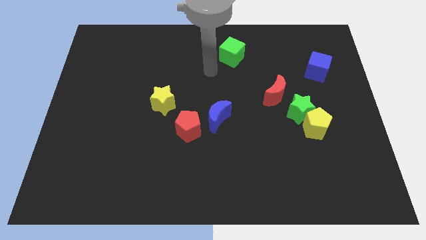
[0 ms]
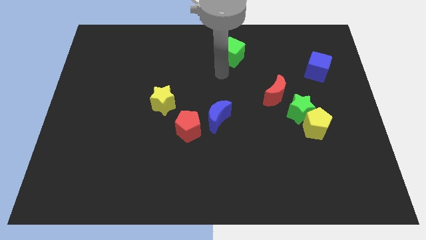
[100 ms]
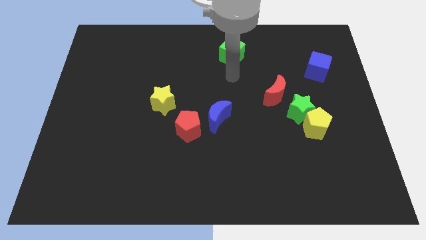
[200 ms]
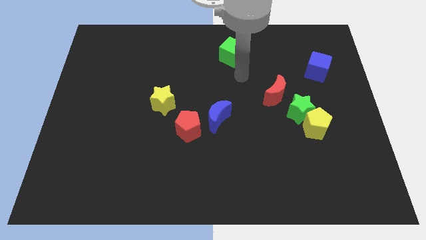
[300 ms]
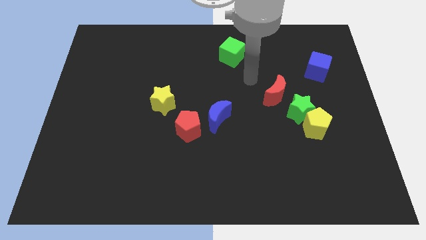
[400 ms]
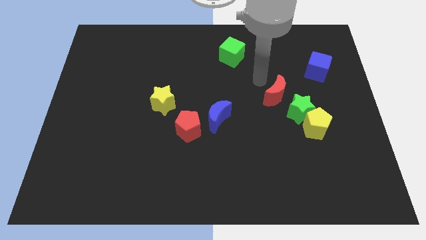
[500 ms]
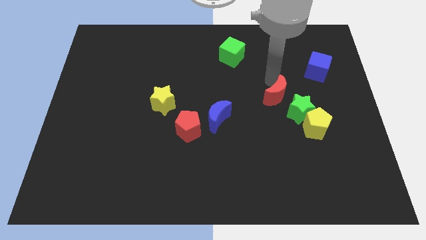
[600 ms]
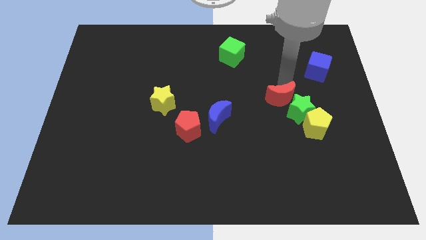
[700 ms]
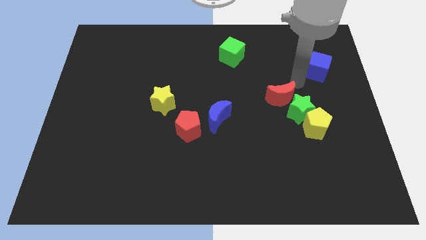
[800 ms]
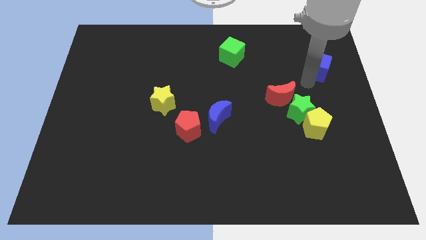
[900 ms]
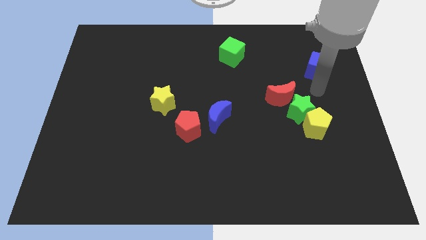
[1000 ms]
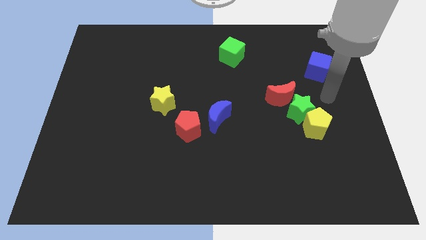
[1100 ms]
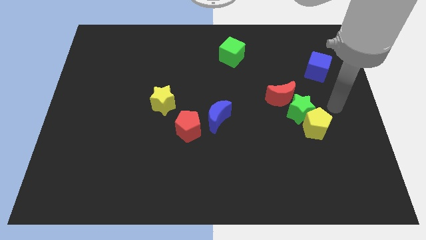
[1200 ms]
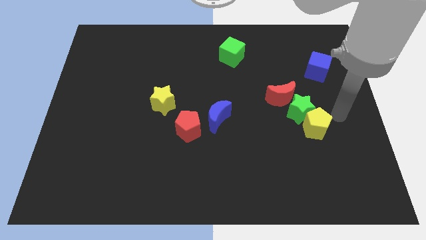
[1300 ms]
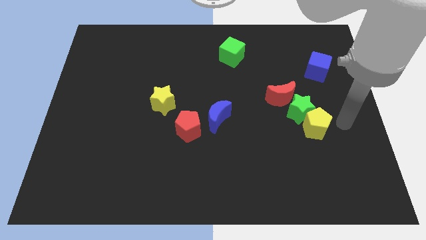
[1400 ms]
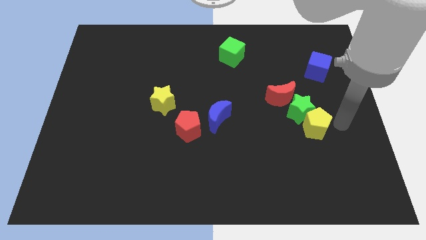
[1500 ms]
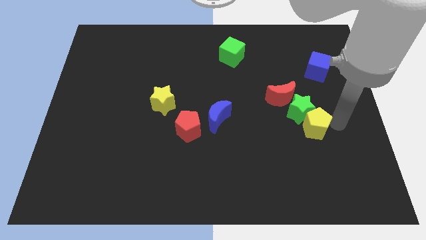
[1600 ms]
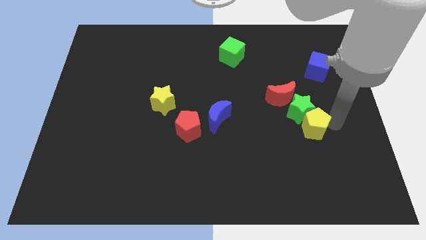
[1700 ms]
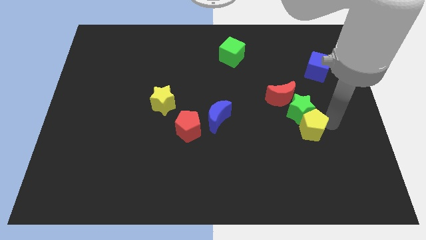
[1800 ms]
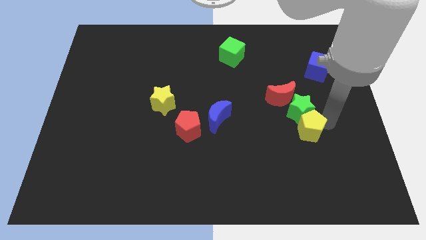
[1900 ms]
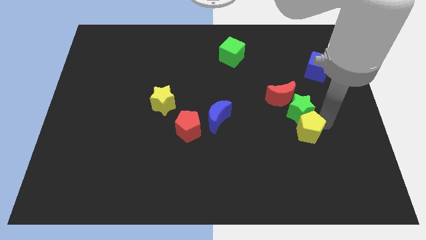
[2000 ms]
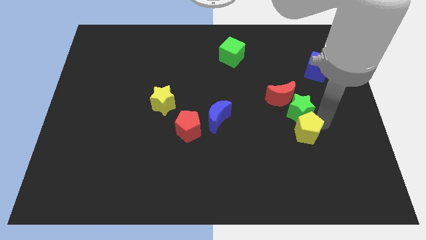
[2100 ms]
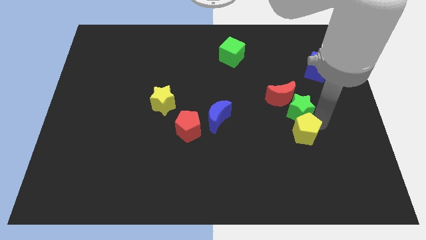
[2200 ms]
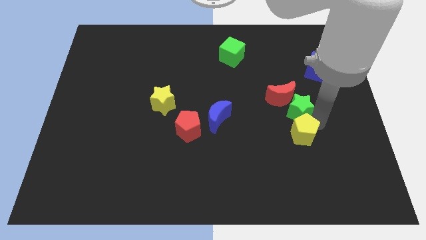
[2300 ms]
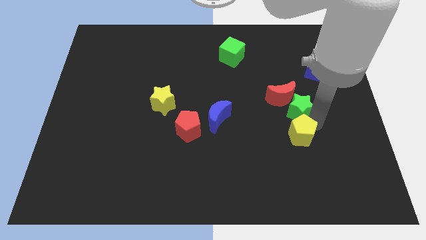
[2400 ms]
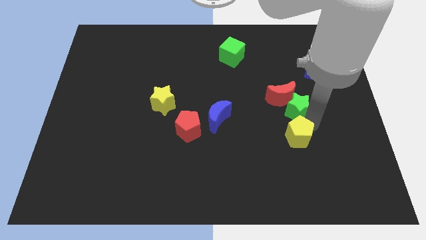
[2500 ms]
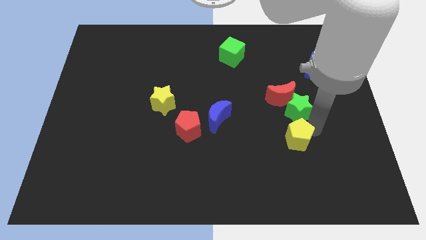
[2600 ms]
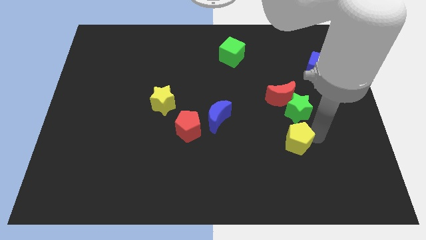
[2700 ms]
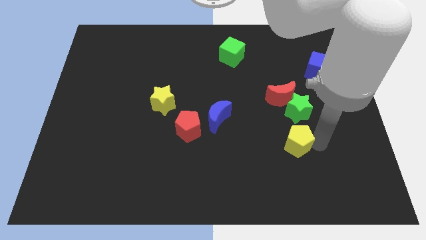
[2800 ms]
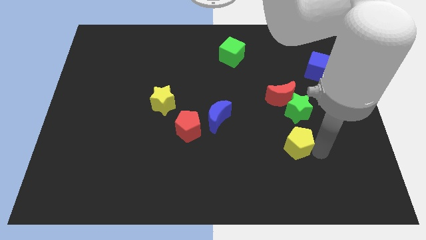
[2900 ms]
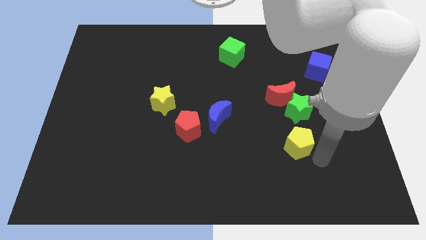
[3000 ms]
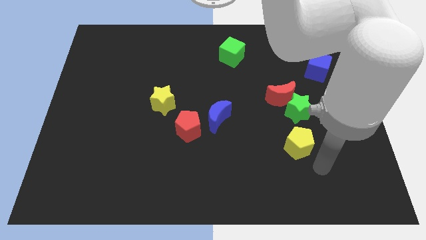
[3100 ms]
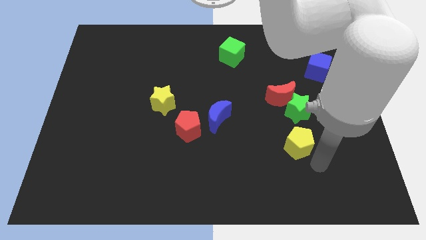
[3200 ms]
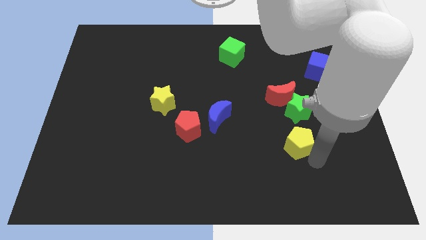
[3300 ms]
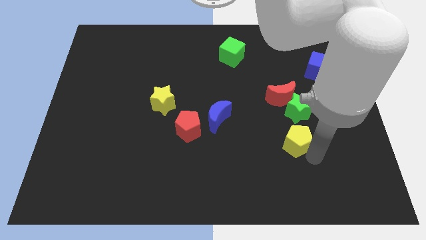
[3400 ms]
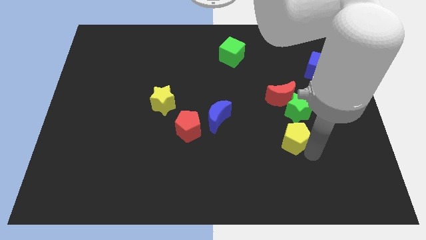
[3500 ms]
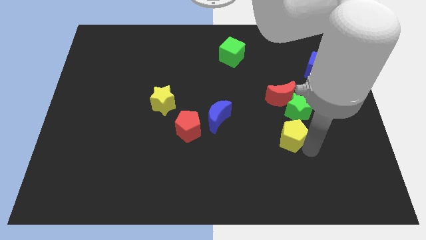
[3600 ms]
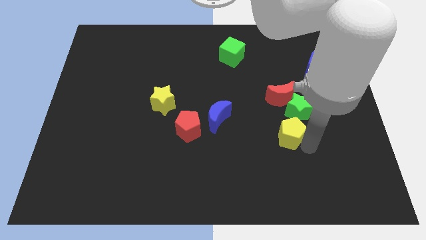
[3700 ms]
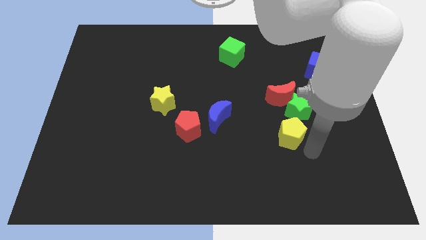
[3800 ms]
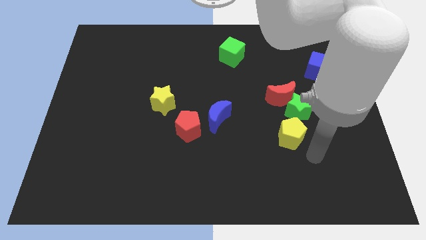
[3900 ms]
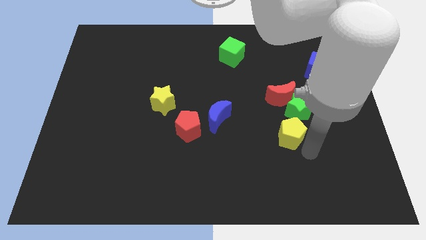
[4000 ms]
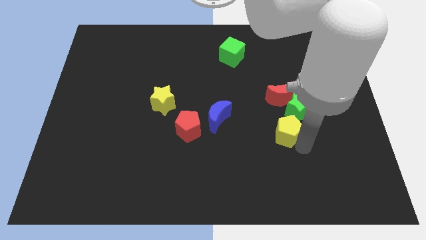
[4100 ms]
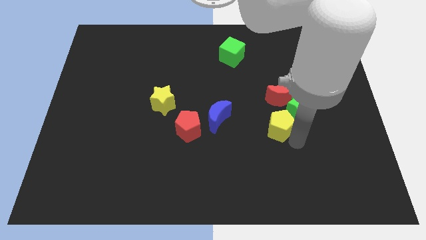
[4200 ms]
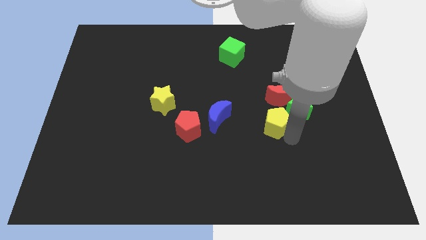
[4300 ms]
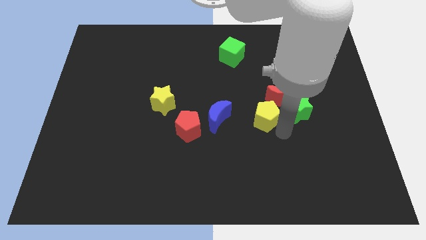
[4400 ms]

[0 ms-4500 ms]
slightly move the yellow pentagon up and left

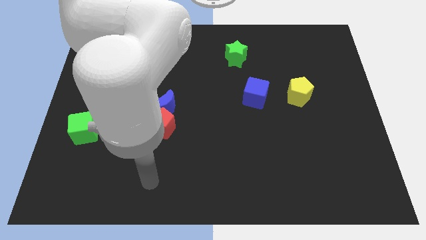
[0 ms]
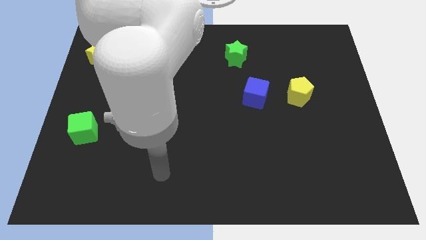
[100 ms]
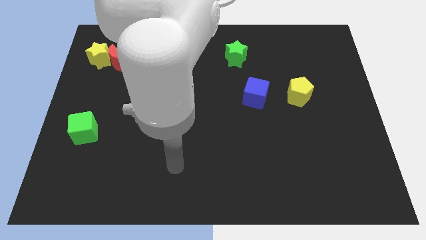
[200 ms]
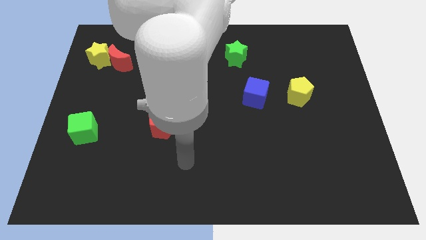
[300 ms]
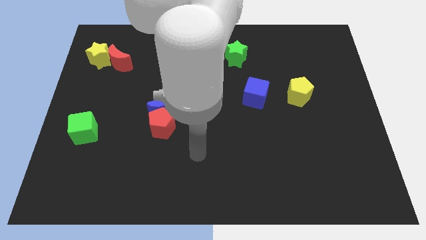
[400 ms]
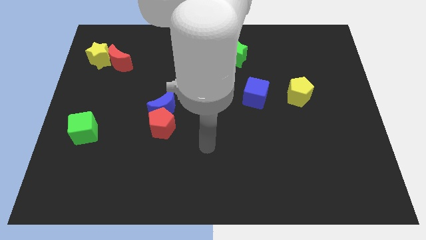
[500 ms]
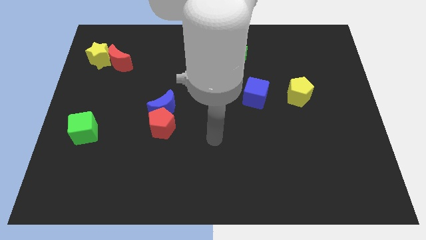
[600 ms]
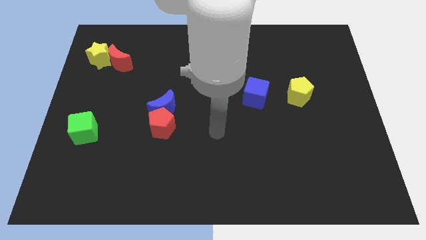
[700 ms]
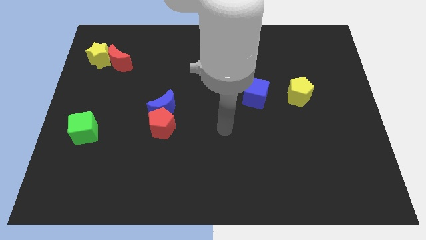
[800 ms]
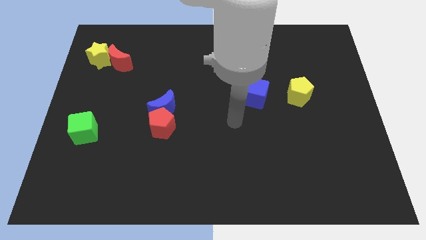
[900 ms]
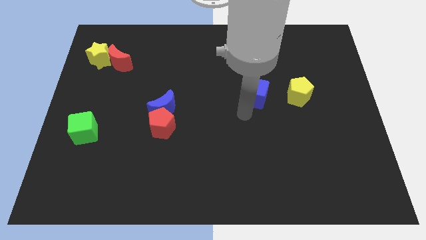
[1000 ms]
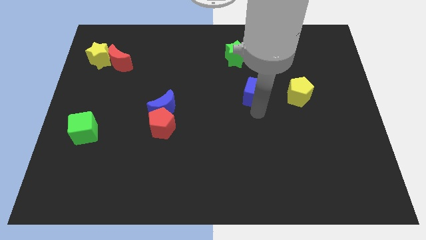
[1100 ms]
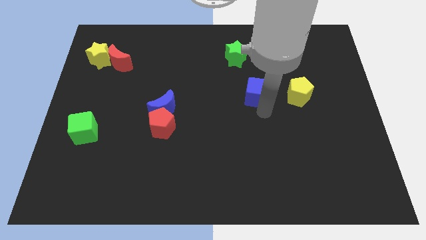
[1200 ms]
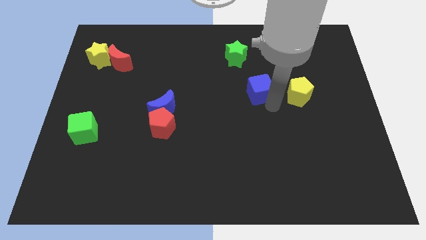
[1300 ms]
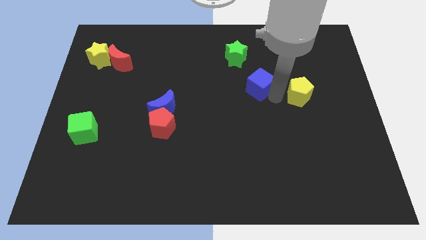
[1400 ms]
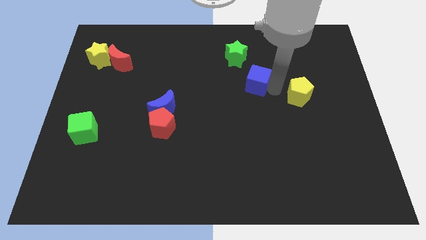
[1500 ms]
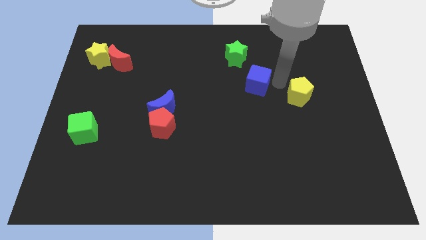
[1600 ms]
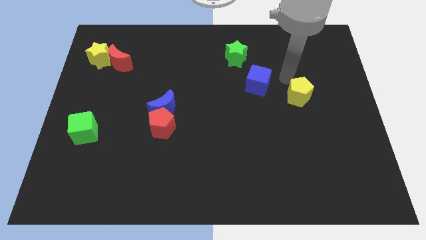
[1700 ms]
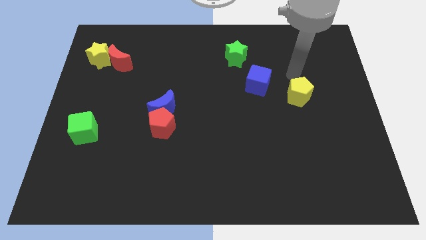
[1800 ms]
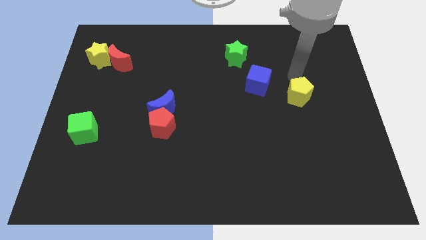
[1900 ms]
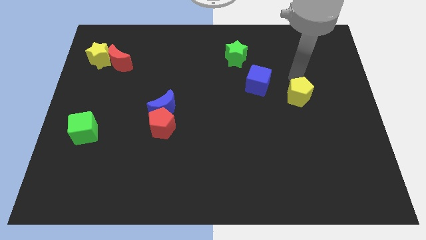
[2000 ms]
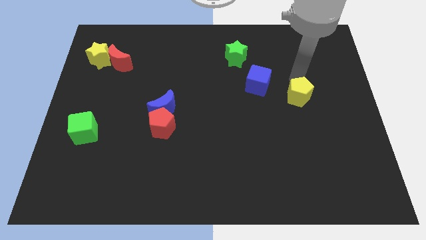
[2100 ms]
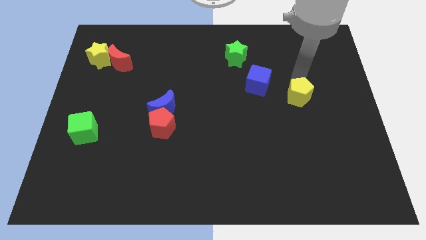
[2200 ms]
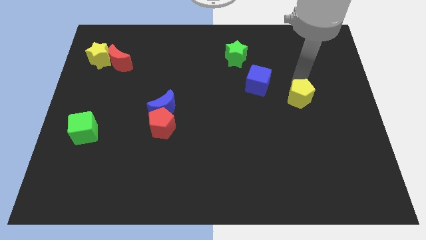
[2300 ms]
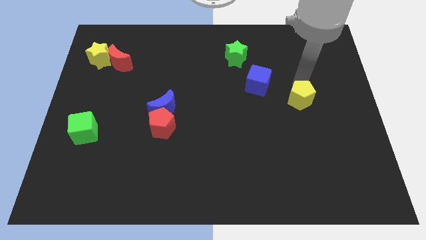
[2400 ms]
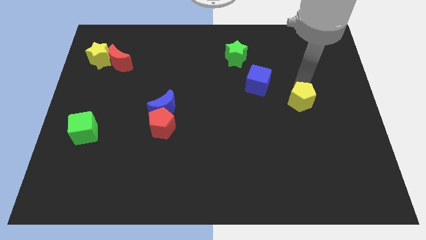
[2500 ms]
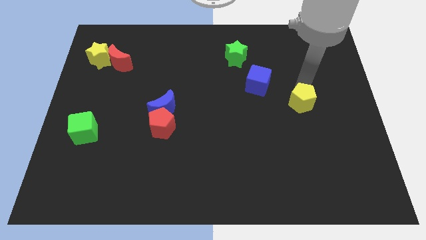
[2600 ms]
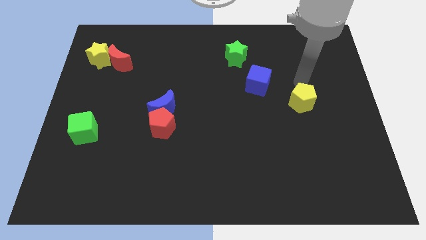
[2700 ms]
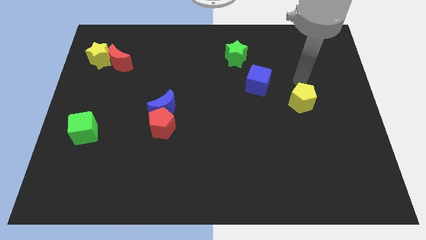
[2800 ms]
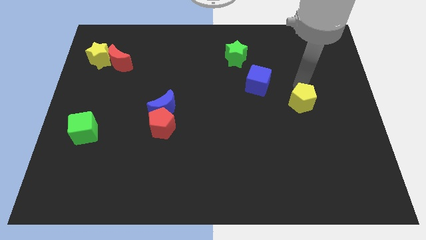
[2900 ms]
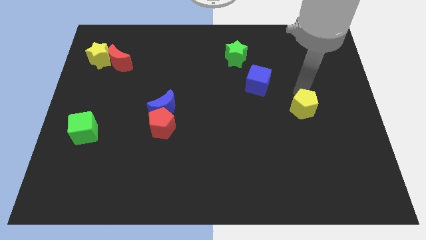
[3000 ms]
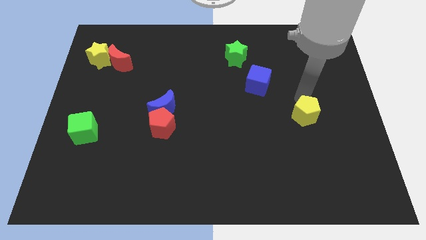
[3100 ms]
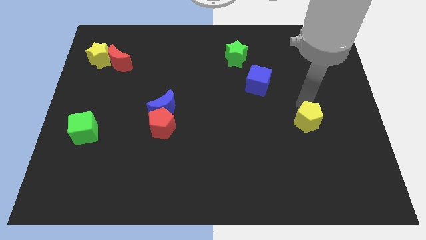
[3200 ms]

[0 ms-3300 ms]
move the yellow pentagon down slightly
